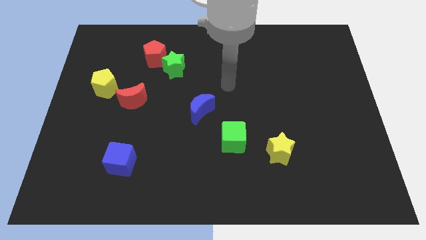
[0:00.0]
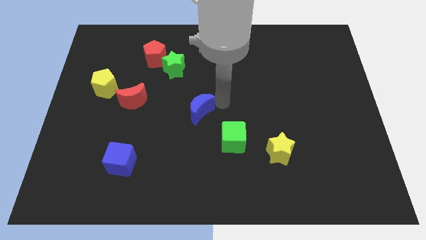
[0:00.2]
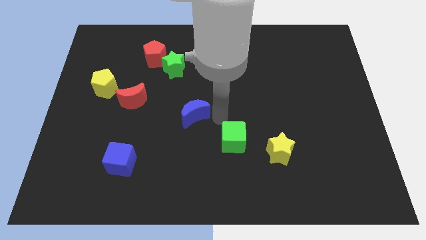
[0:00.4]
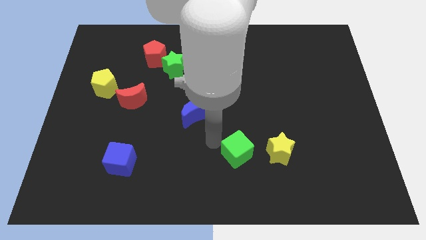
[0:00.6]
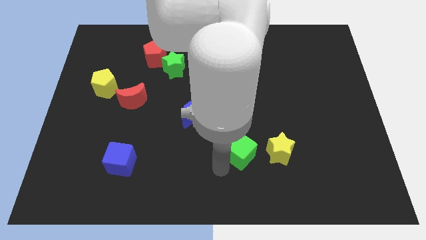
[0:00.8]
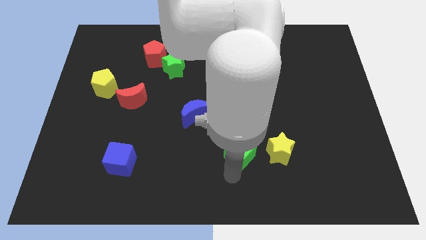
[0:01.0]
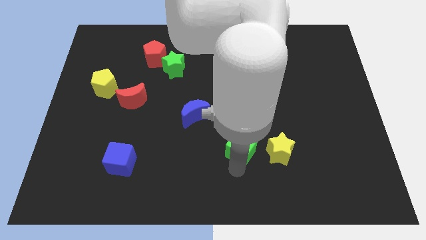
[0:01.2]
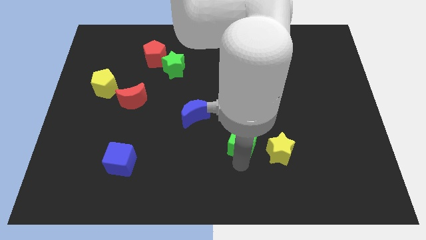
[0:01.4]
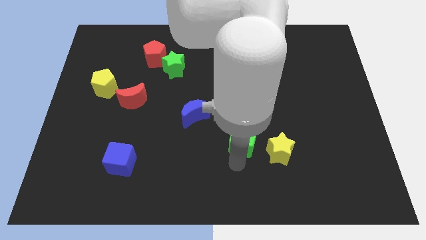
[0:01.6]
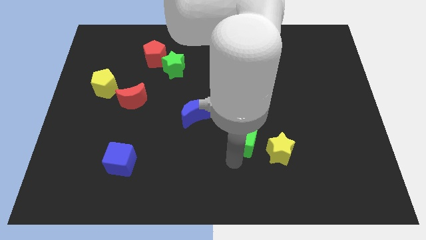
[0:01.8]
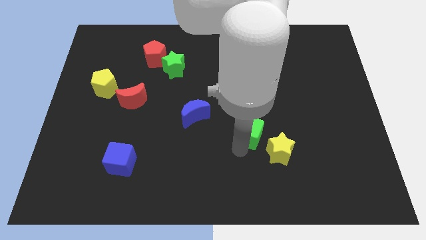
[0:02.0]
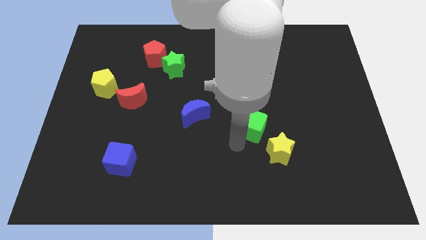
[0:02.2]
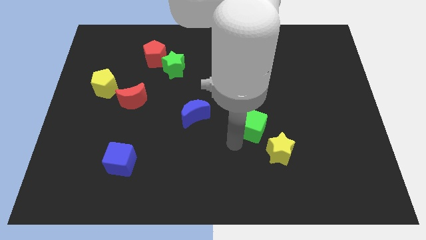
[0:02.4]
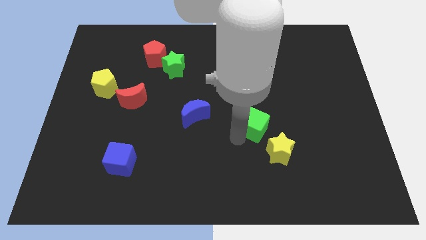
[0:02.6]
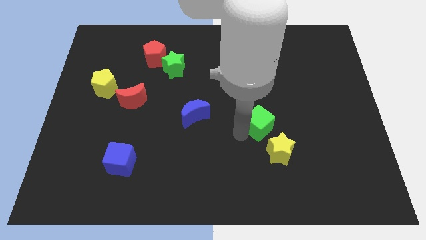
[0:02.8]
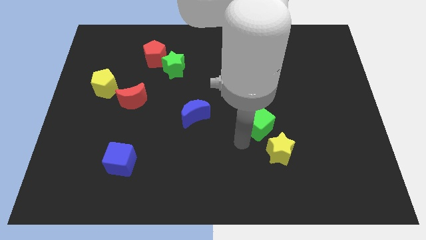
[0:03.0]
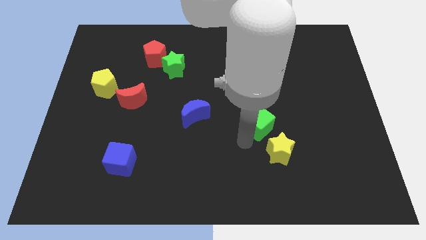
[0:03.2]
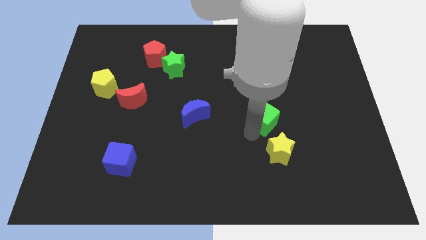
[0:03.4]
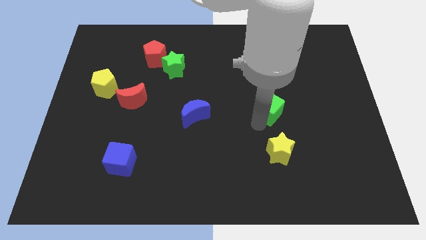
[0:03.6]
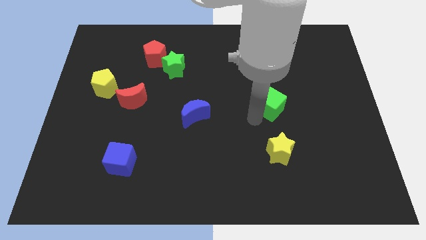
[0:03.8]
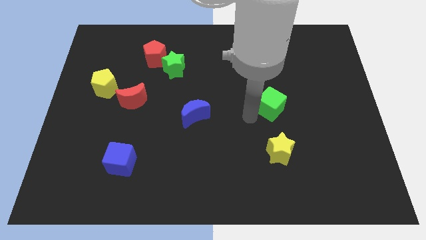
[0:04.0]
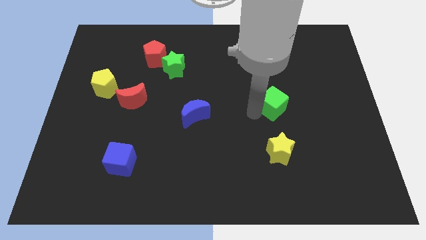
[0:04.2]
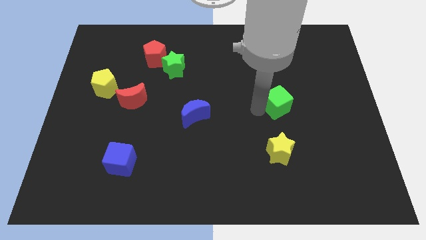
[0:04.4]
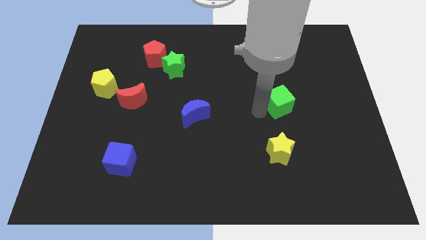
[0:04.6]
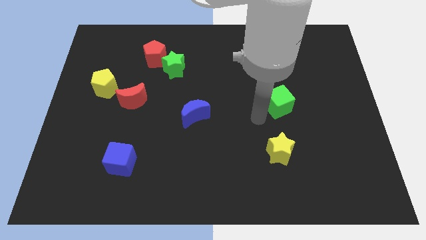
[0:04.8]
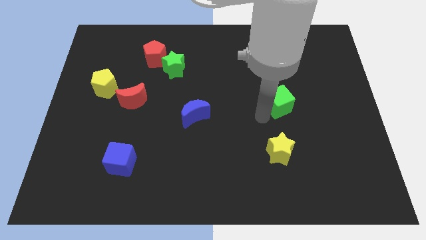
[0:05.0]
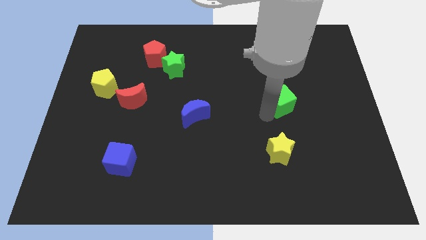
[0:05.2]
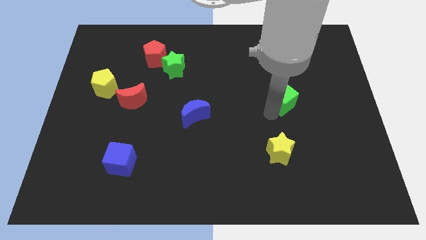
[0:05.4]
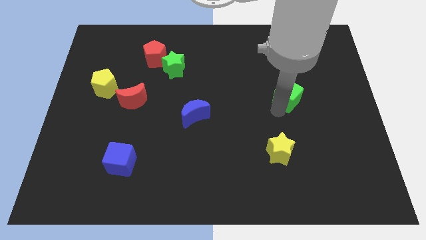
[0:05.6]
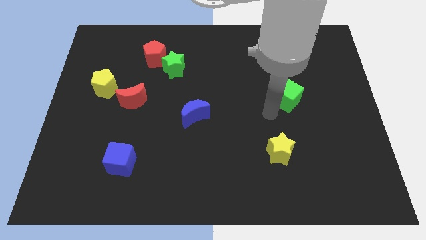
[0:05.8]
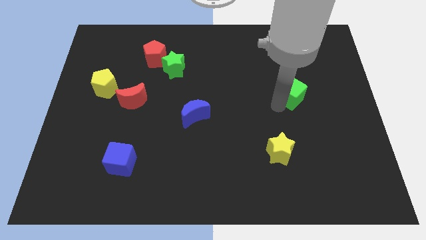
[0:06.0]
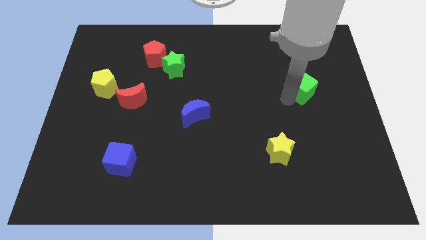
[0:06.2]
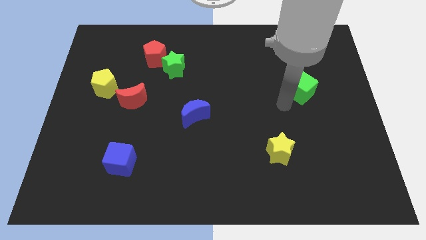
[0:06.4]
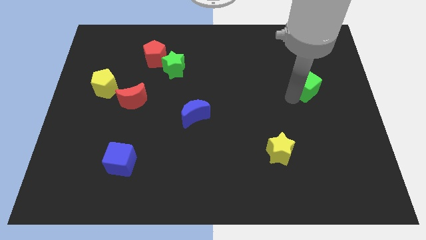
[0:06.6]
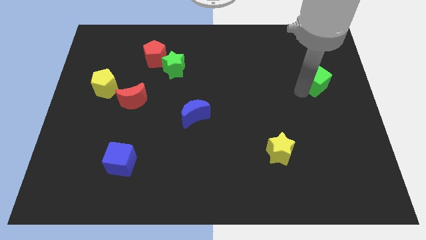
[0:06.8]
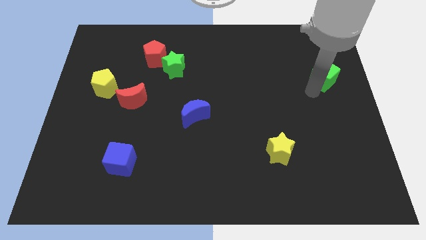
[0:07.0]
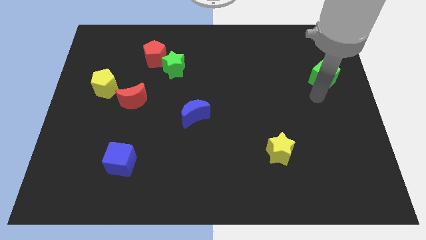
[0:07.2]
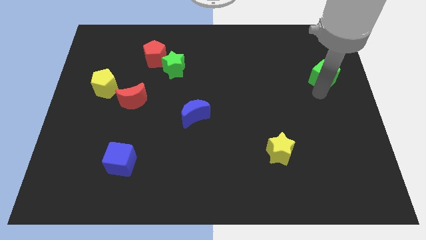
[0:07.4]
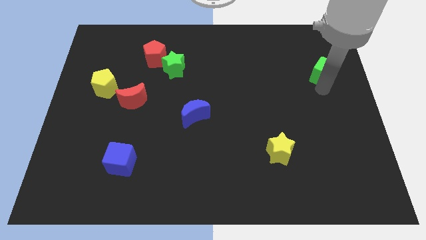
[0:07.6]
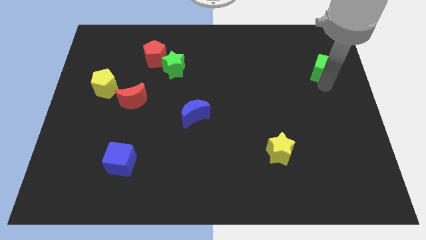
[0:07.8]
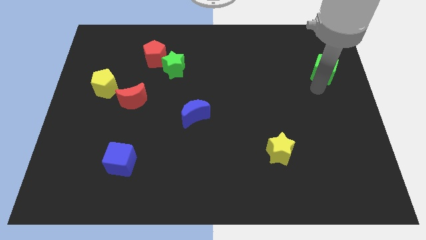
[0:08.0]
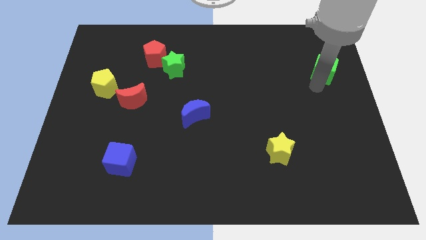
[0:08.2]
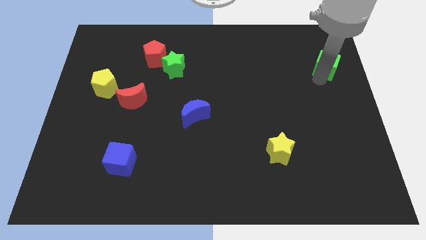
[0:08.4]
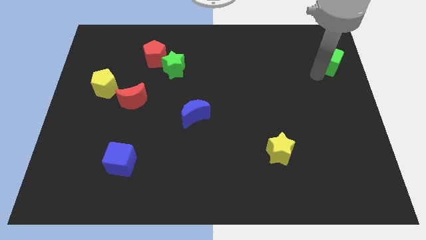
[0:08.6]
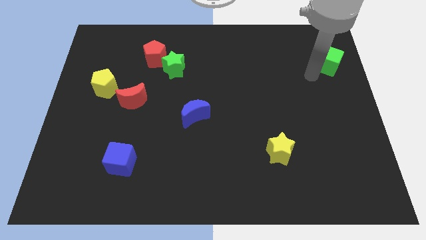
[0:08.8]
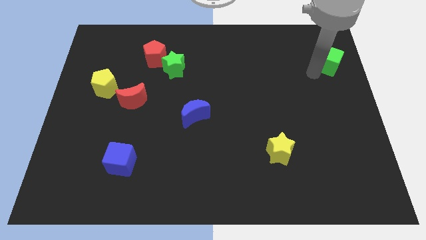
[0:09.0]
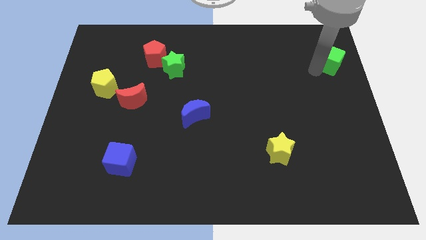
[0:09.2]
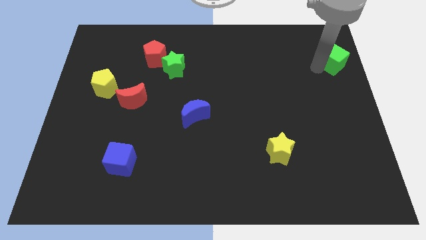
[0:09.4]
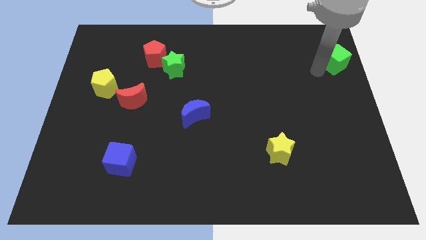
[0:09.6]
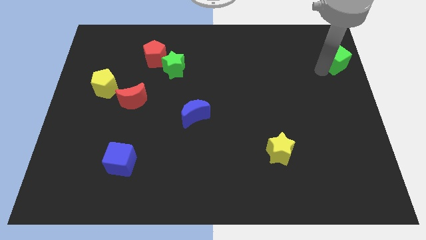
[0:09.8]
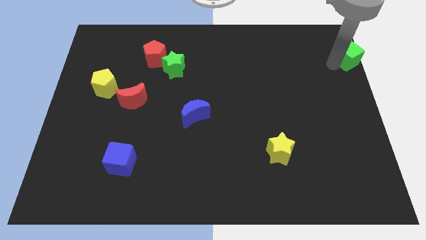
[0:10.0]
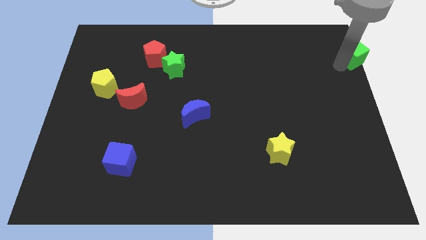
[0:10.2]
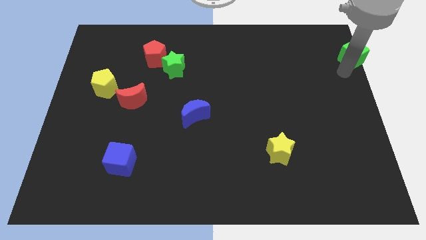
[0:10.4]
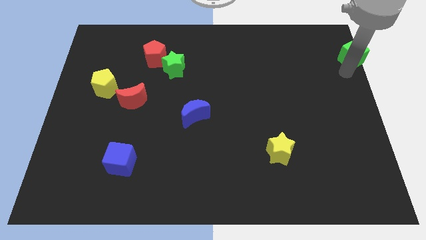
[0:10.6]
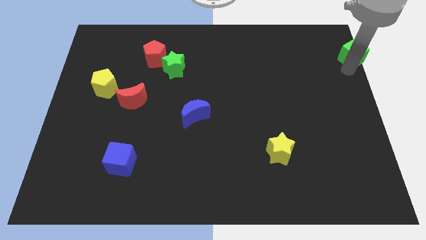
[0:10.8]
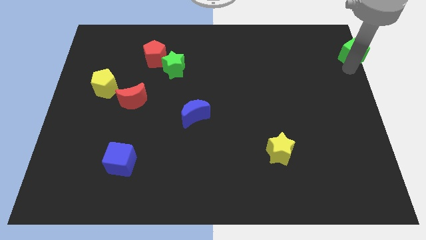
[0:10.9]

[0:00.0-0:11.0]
put the green cube to the upper right corner

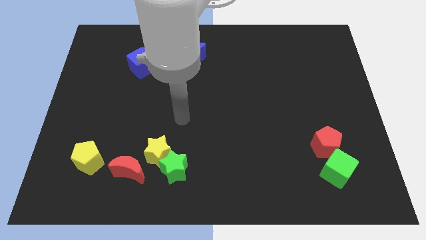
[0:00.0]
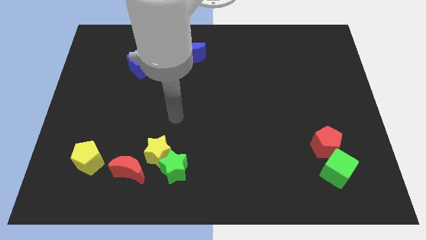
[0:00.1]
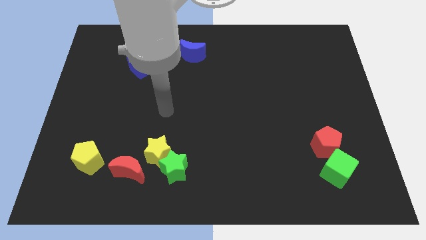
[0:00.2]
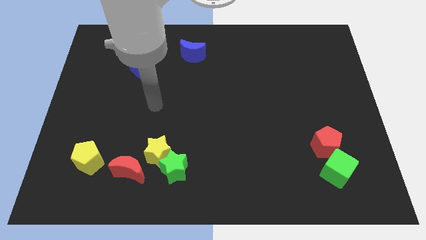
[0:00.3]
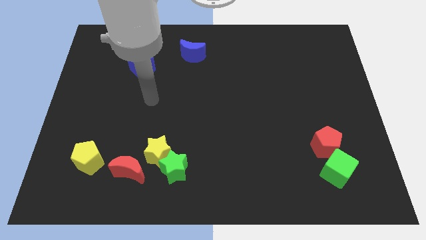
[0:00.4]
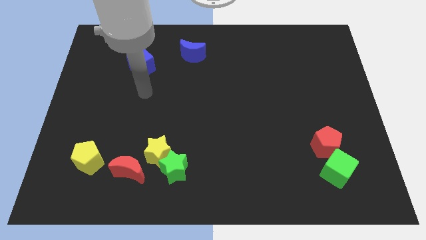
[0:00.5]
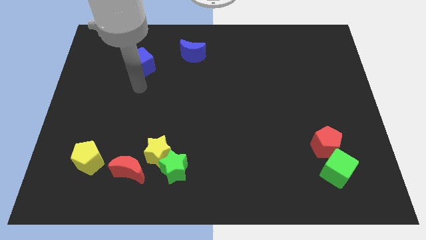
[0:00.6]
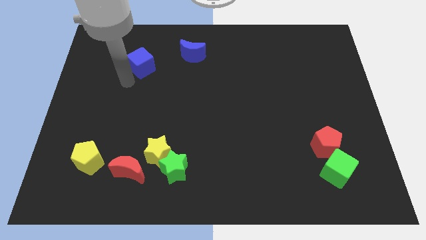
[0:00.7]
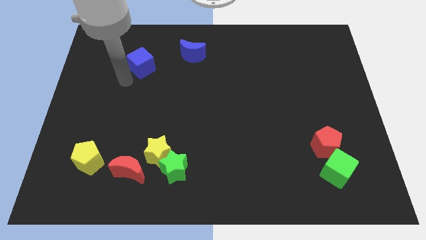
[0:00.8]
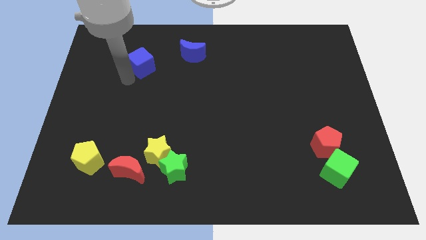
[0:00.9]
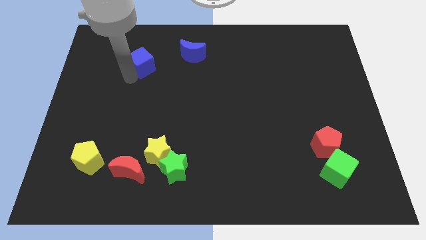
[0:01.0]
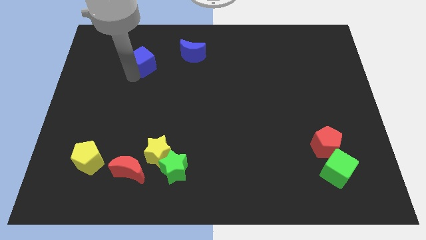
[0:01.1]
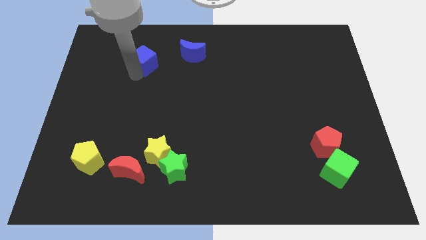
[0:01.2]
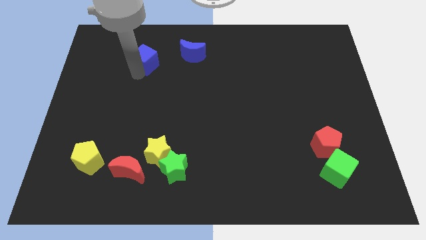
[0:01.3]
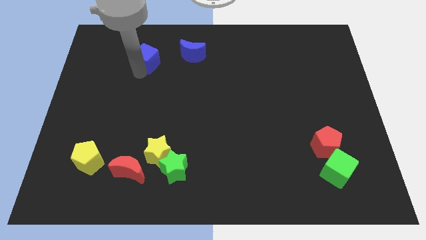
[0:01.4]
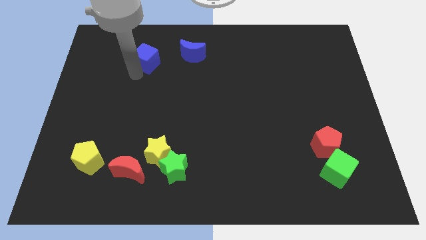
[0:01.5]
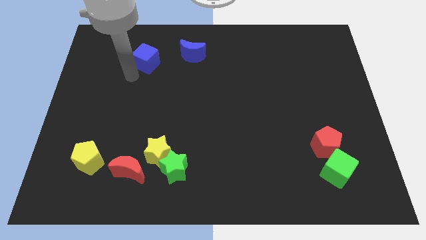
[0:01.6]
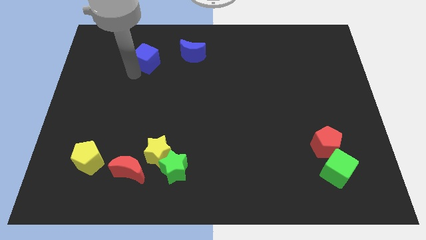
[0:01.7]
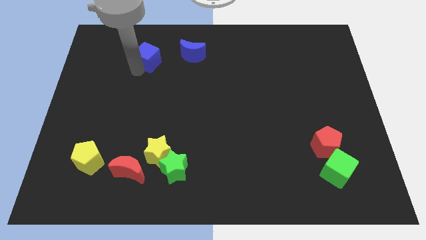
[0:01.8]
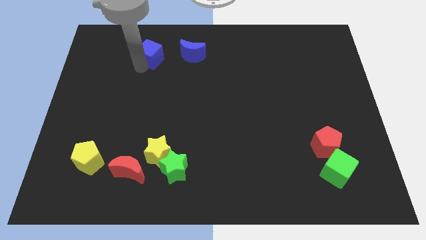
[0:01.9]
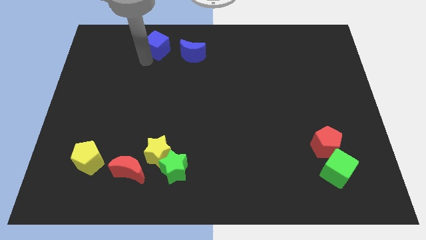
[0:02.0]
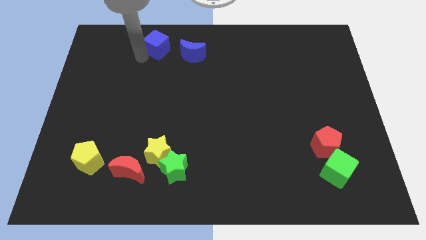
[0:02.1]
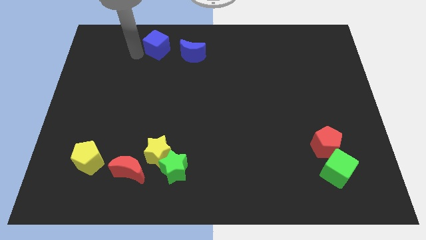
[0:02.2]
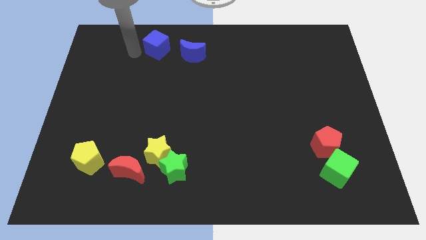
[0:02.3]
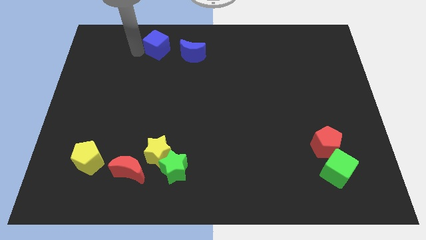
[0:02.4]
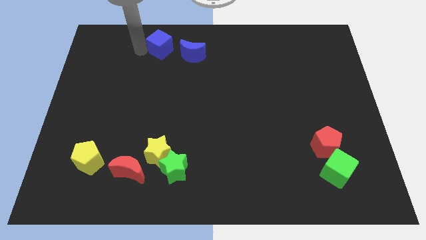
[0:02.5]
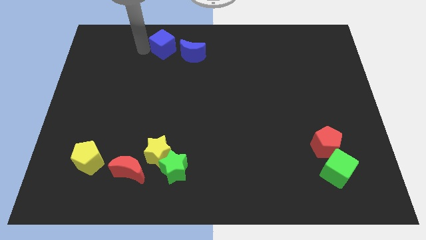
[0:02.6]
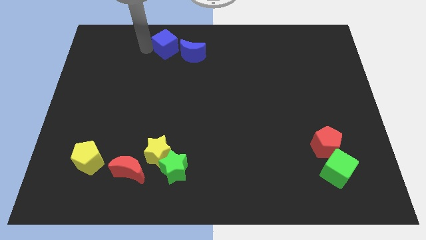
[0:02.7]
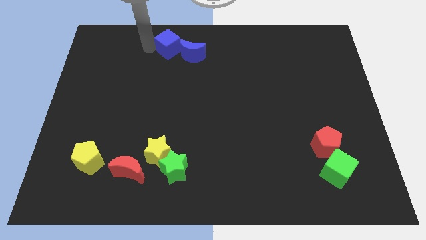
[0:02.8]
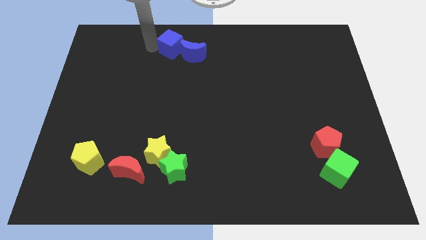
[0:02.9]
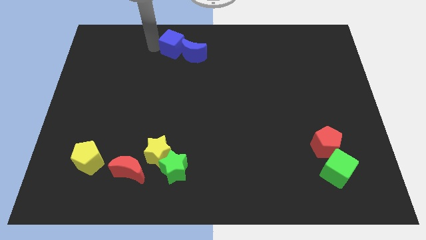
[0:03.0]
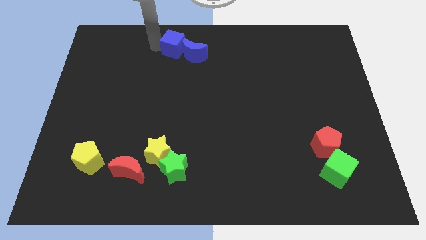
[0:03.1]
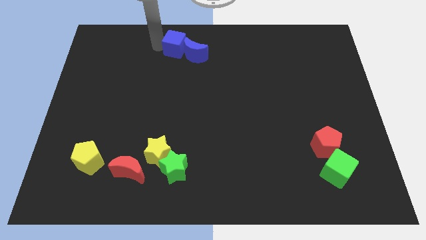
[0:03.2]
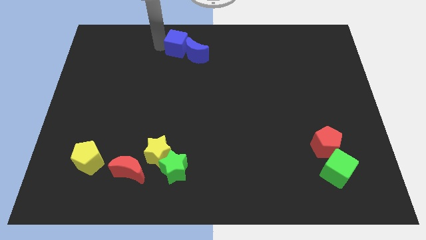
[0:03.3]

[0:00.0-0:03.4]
slide the blue cube to the top side
